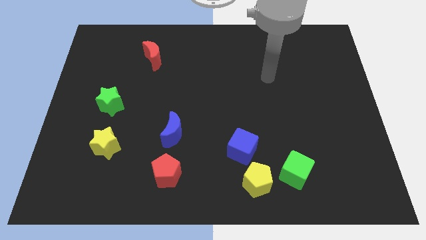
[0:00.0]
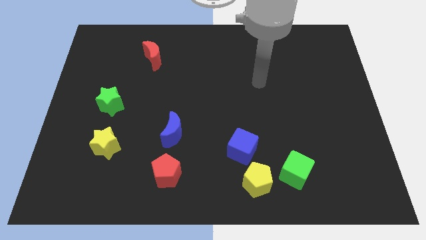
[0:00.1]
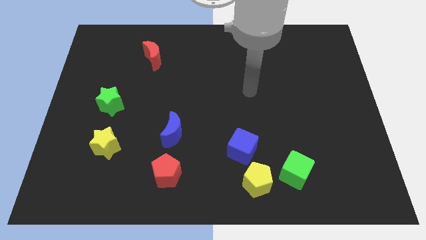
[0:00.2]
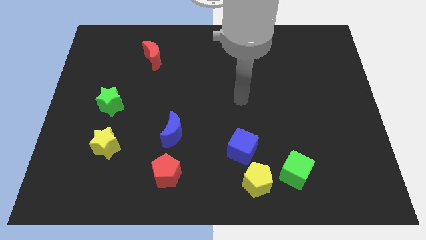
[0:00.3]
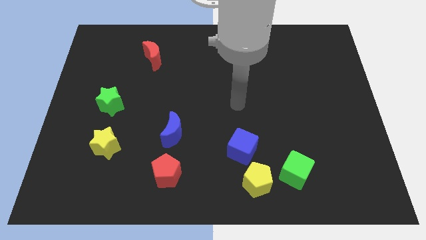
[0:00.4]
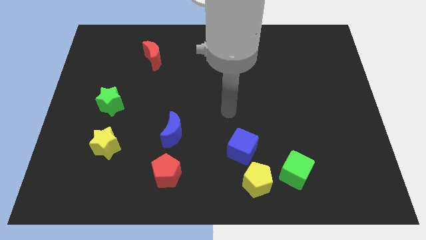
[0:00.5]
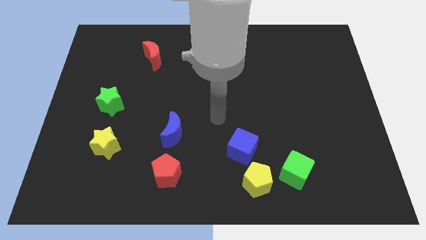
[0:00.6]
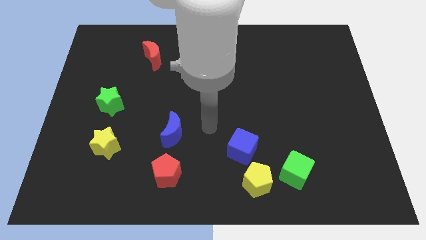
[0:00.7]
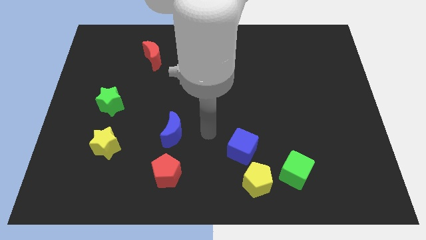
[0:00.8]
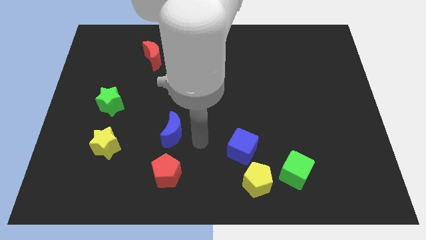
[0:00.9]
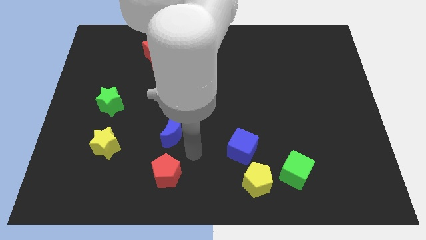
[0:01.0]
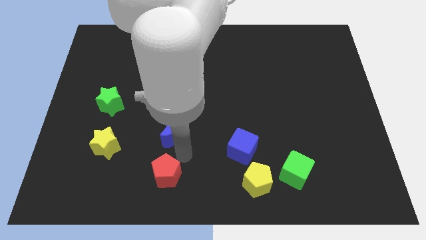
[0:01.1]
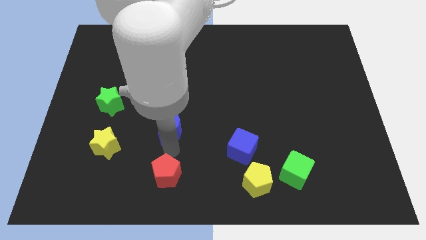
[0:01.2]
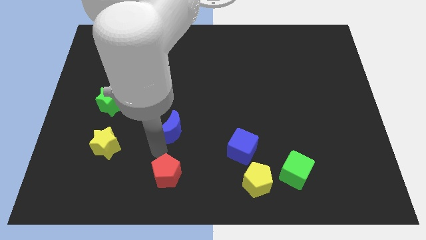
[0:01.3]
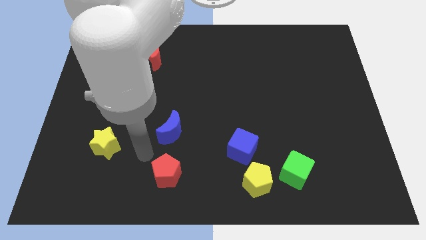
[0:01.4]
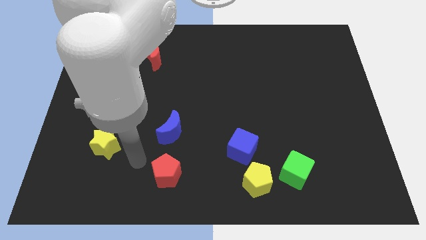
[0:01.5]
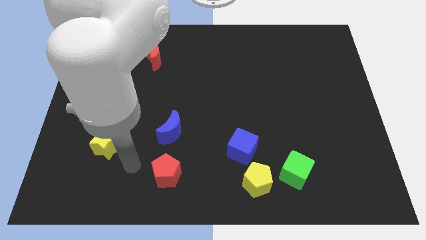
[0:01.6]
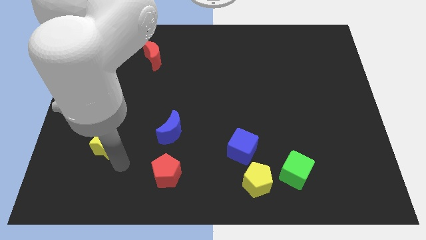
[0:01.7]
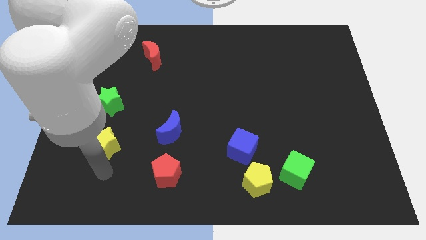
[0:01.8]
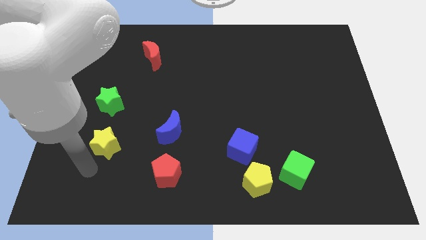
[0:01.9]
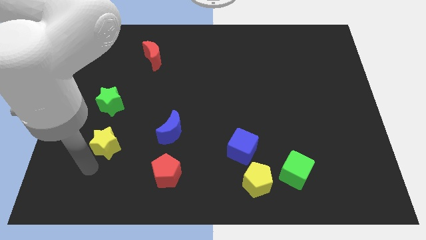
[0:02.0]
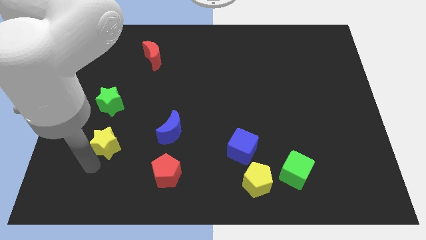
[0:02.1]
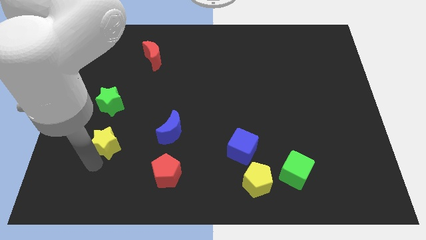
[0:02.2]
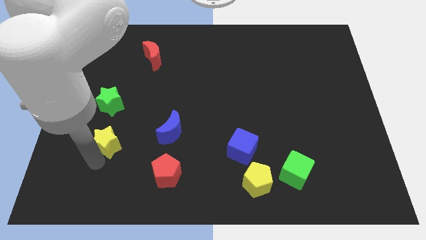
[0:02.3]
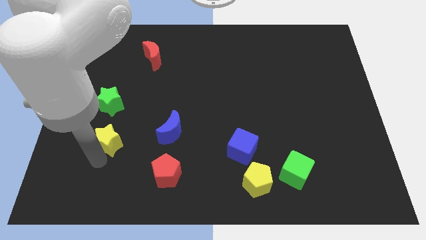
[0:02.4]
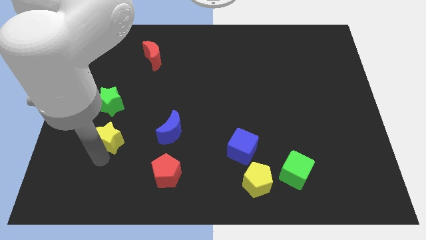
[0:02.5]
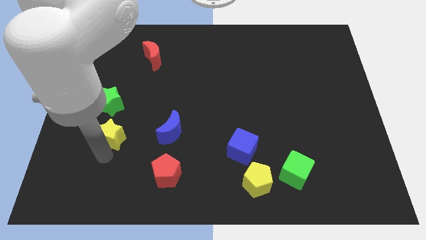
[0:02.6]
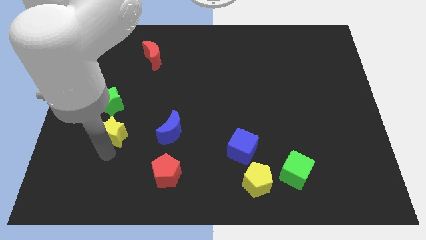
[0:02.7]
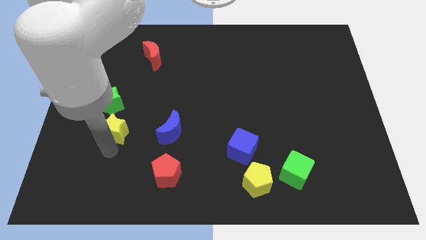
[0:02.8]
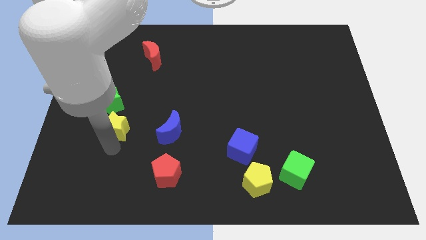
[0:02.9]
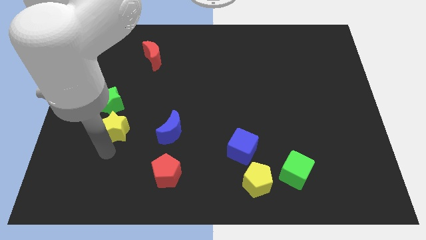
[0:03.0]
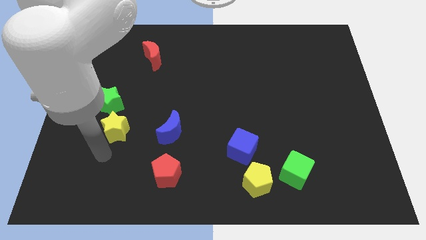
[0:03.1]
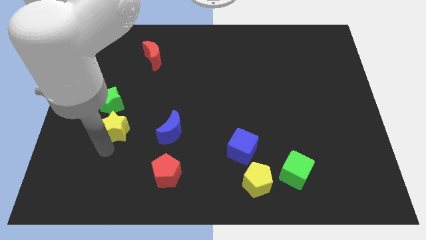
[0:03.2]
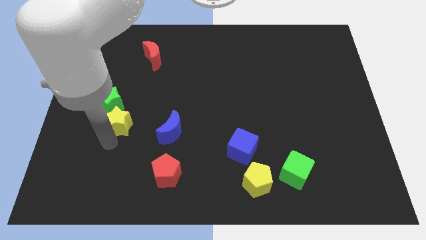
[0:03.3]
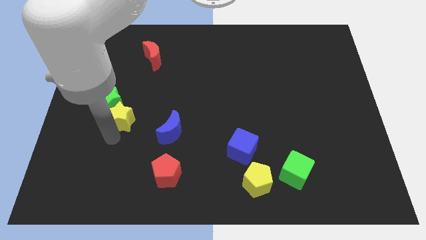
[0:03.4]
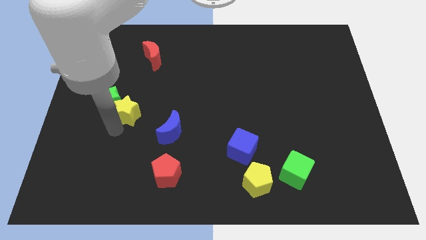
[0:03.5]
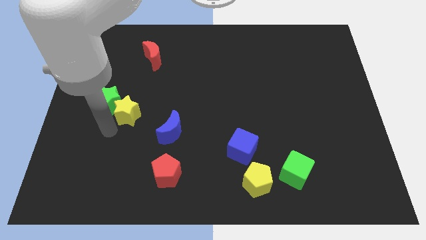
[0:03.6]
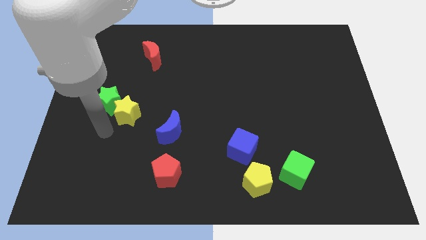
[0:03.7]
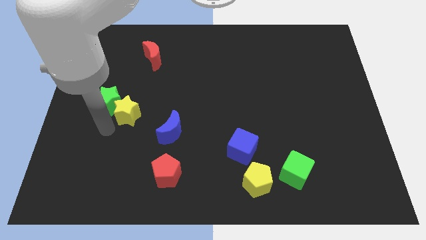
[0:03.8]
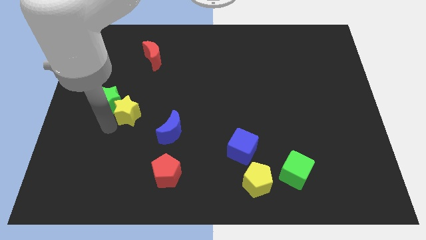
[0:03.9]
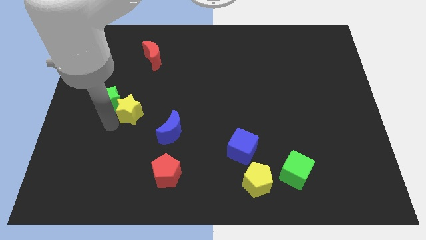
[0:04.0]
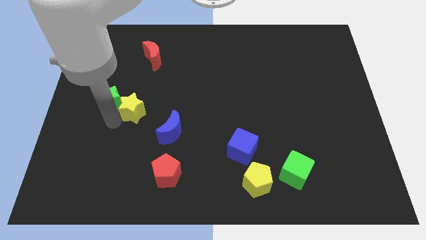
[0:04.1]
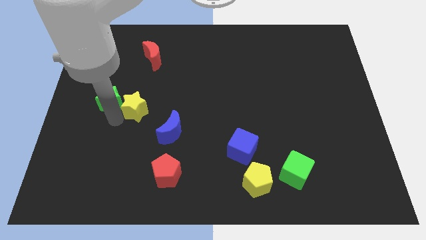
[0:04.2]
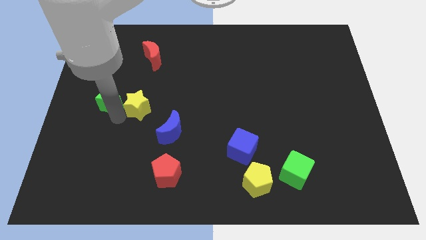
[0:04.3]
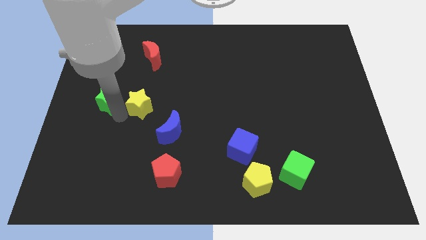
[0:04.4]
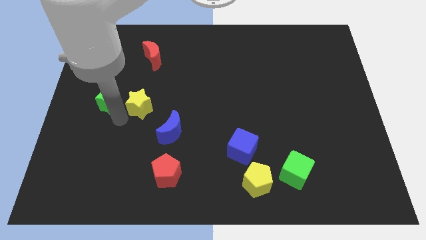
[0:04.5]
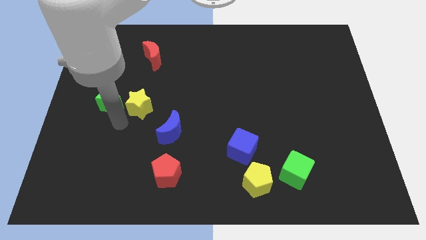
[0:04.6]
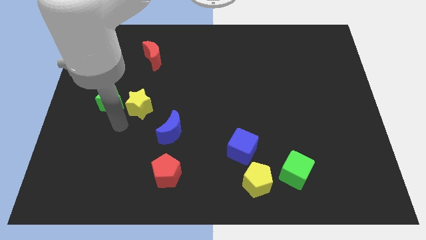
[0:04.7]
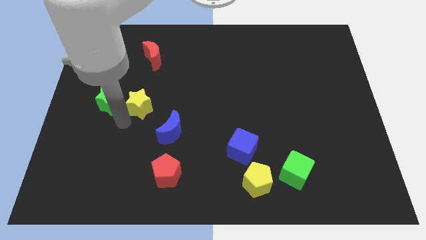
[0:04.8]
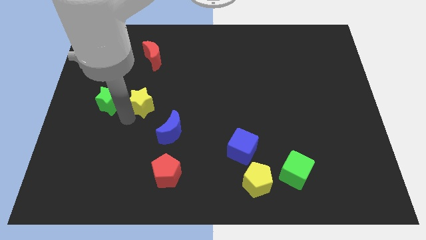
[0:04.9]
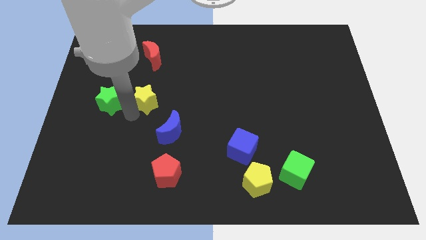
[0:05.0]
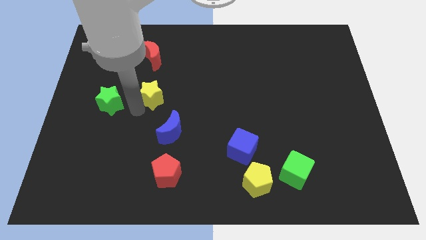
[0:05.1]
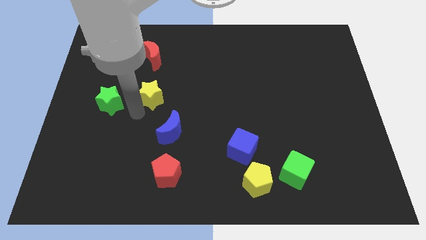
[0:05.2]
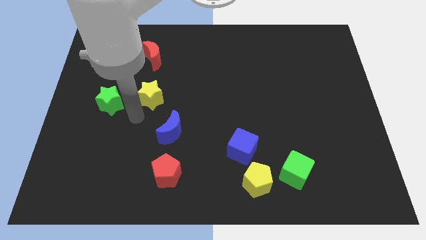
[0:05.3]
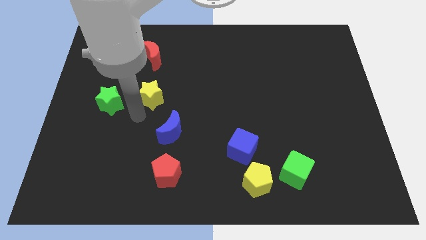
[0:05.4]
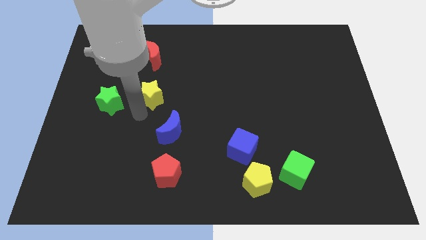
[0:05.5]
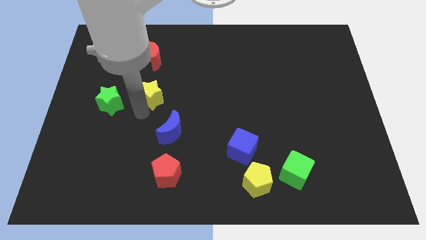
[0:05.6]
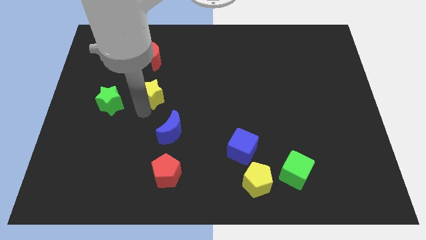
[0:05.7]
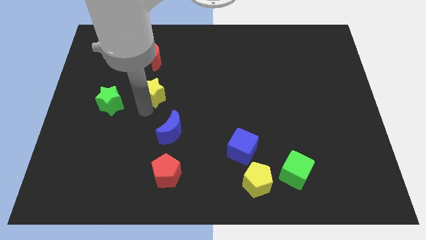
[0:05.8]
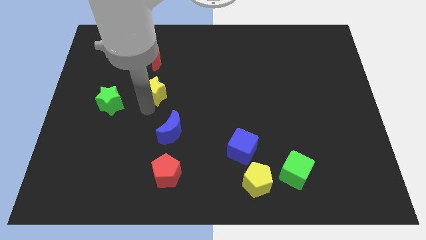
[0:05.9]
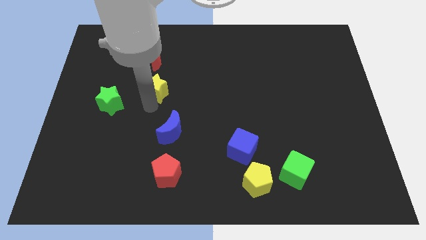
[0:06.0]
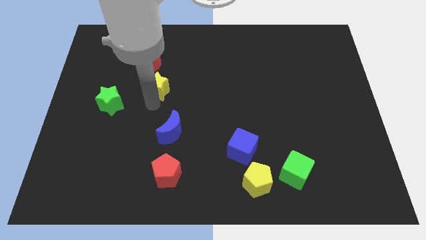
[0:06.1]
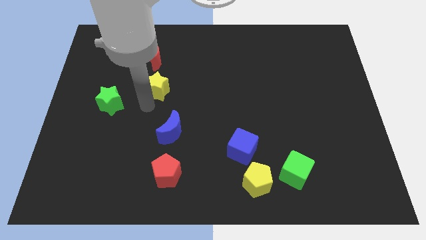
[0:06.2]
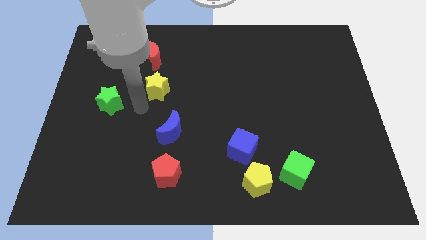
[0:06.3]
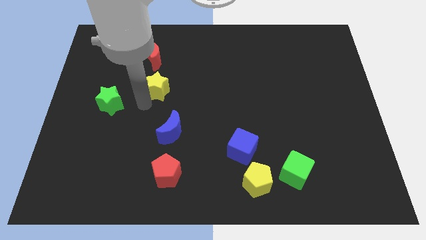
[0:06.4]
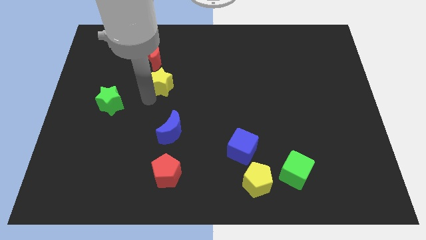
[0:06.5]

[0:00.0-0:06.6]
push the yellow star diagonally down and to the right of the red moon
